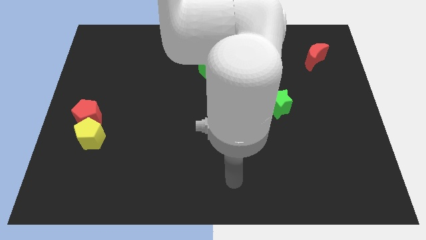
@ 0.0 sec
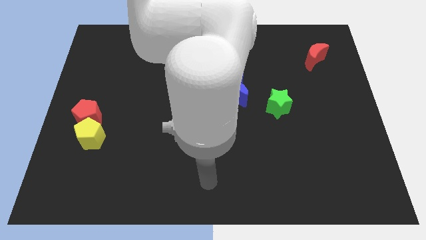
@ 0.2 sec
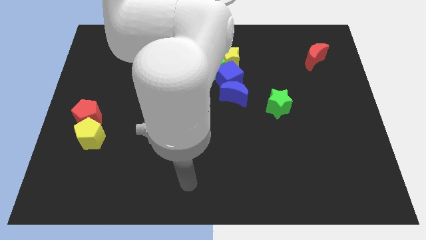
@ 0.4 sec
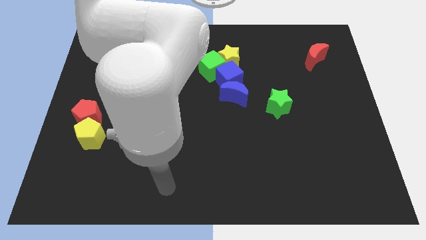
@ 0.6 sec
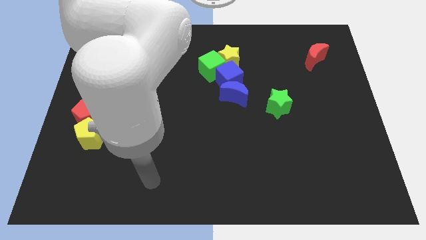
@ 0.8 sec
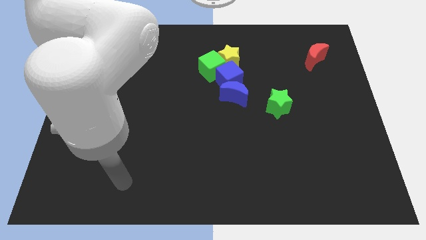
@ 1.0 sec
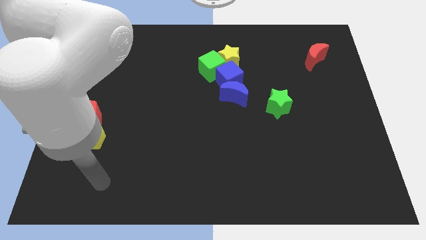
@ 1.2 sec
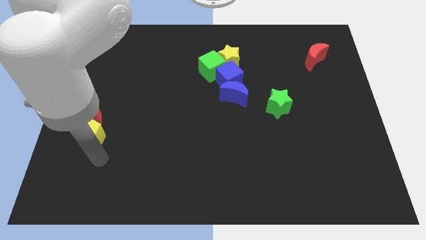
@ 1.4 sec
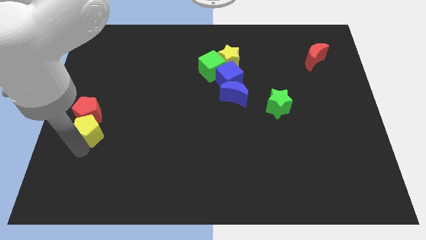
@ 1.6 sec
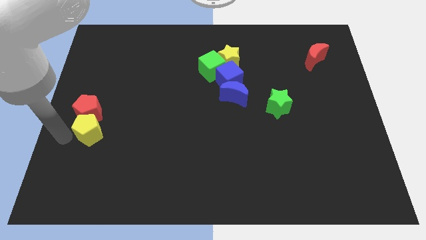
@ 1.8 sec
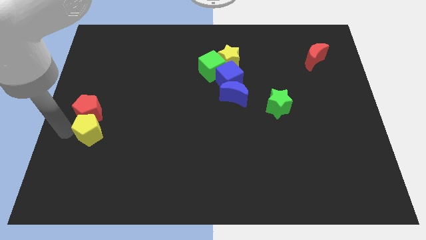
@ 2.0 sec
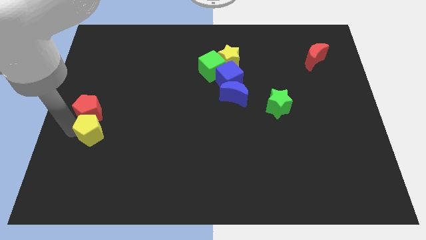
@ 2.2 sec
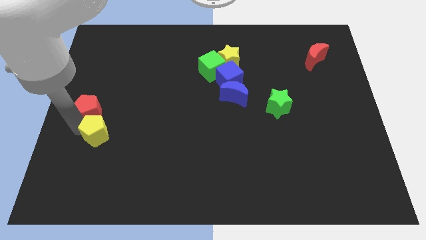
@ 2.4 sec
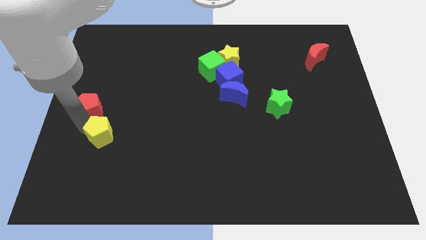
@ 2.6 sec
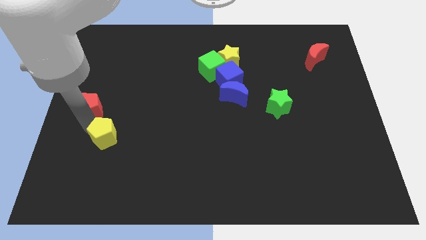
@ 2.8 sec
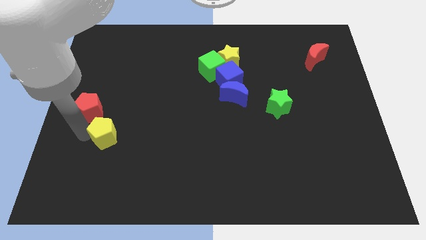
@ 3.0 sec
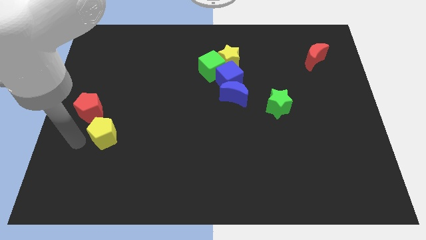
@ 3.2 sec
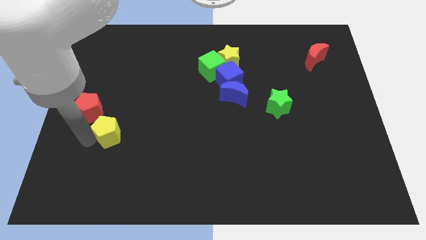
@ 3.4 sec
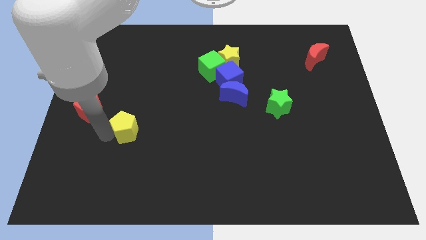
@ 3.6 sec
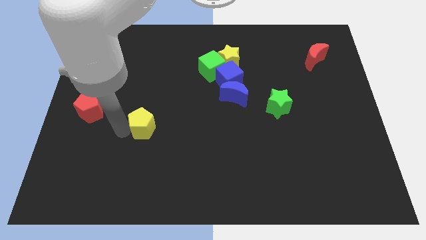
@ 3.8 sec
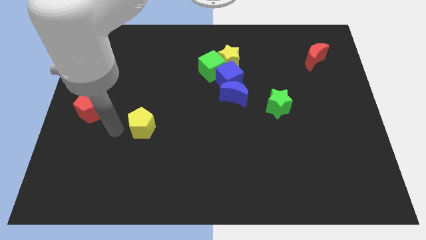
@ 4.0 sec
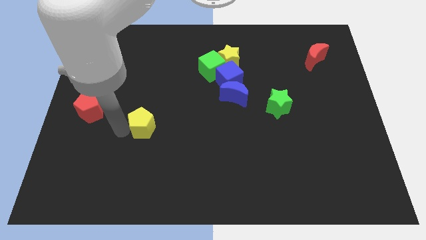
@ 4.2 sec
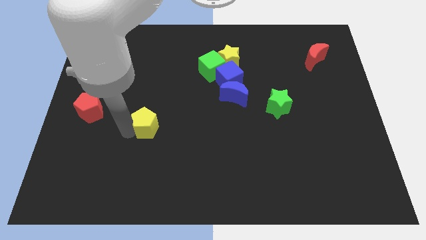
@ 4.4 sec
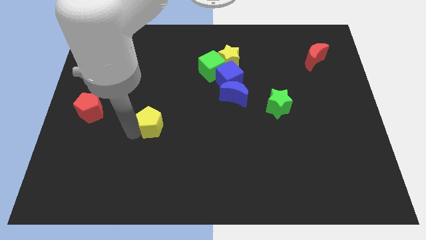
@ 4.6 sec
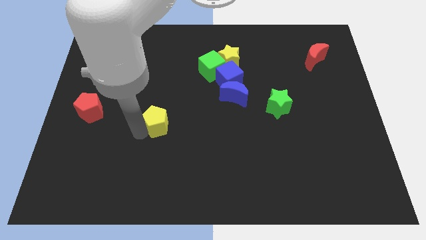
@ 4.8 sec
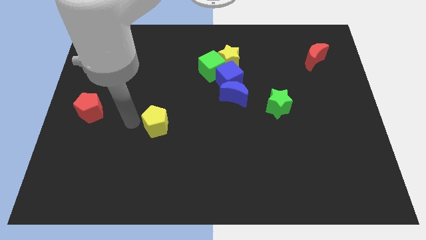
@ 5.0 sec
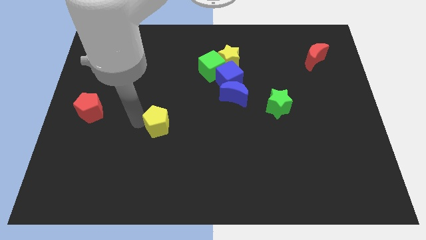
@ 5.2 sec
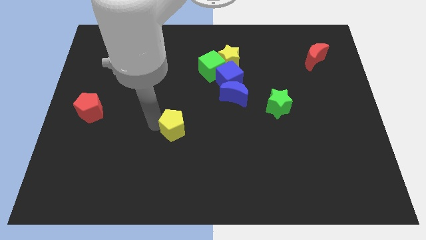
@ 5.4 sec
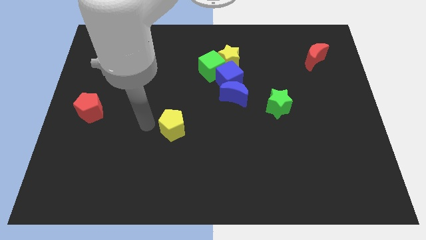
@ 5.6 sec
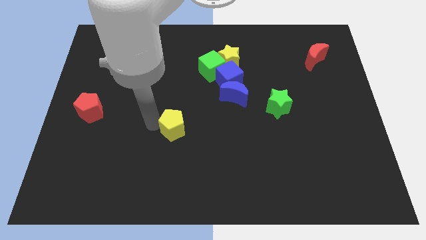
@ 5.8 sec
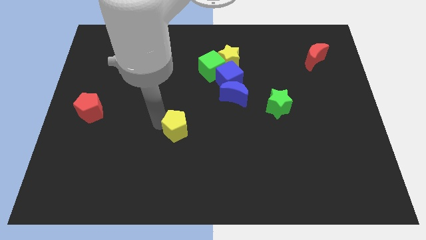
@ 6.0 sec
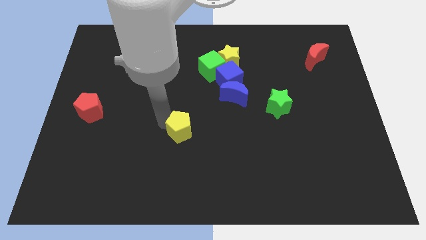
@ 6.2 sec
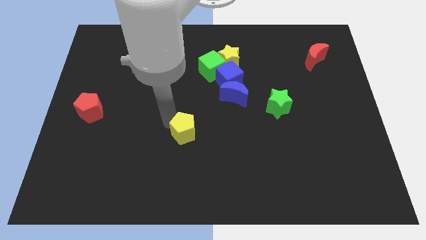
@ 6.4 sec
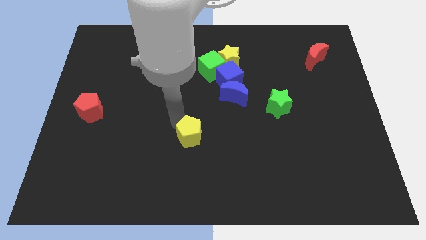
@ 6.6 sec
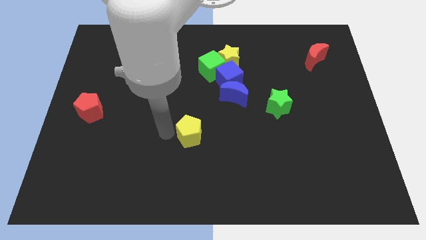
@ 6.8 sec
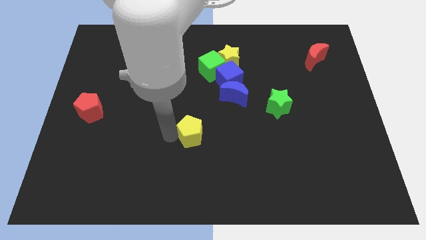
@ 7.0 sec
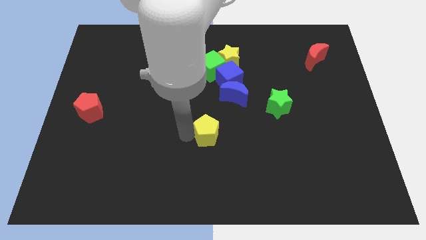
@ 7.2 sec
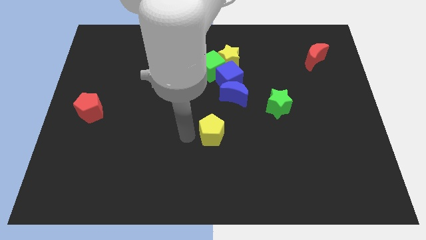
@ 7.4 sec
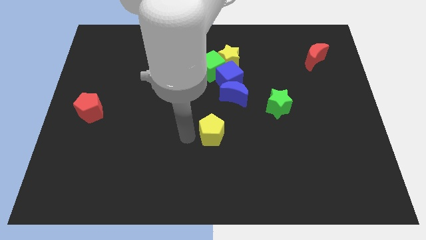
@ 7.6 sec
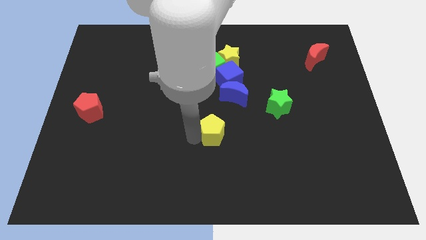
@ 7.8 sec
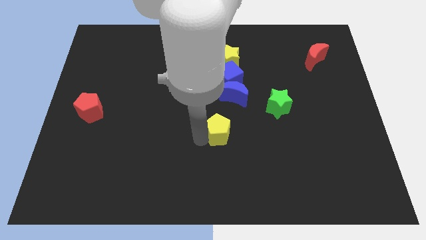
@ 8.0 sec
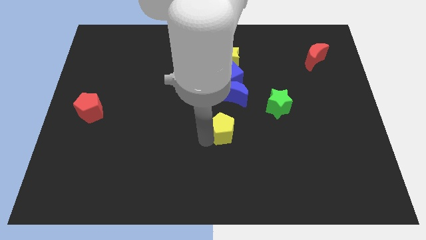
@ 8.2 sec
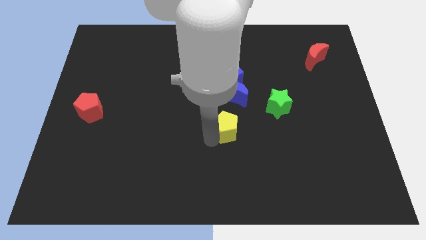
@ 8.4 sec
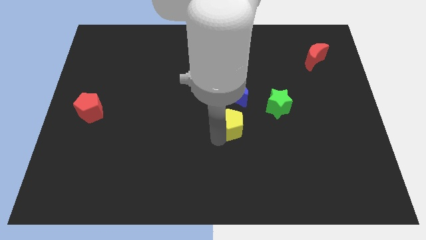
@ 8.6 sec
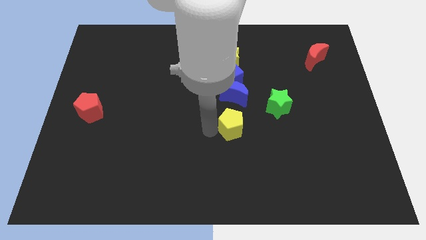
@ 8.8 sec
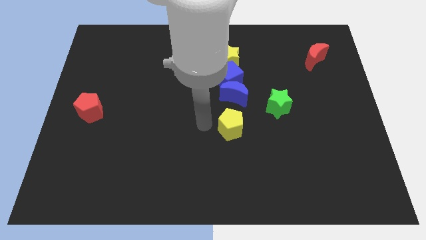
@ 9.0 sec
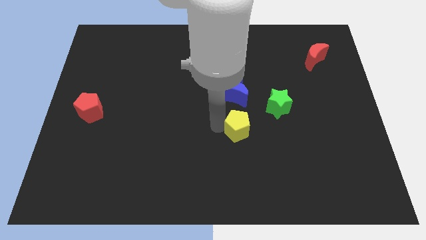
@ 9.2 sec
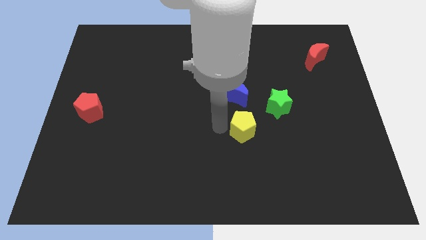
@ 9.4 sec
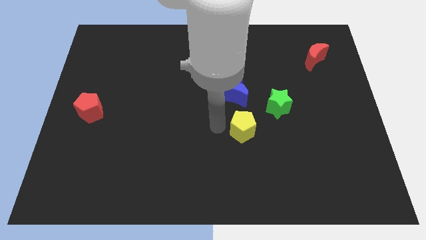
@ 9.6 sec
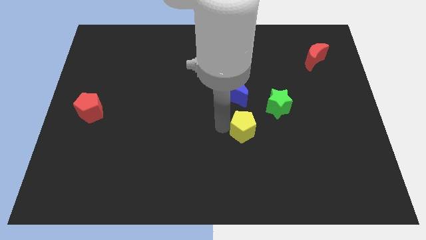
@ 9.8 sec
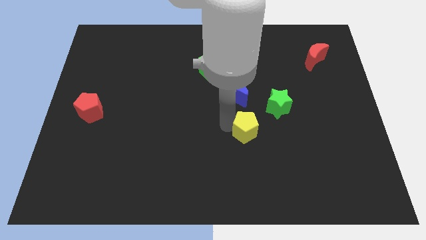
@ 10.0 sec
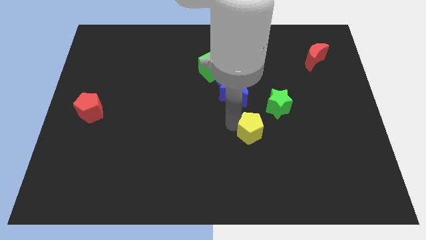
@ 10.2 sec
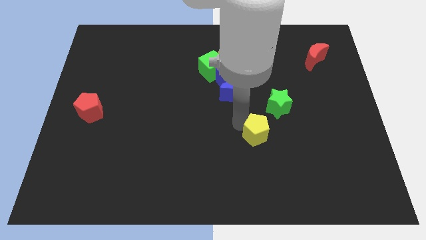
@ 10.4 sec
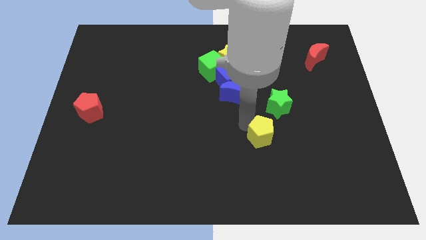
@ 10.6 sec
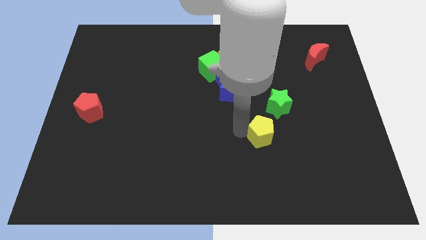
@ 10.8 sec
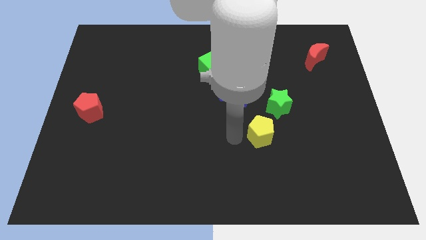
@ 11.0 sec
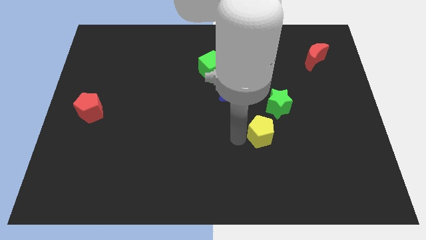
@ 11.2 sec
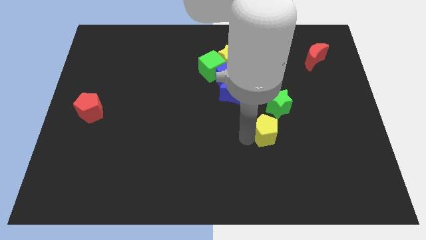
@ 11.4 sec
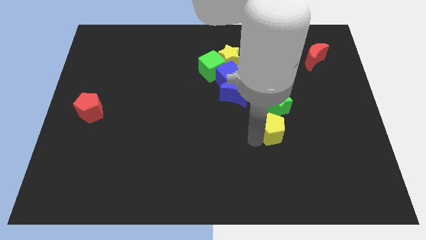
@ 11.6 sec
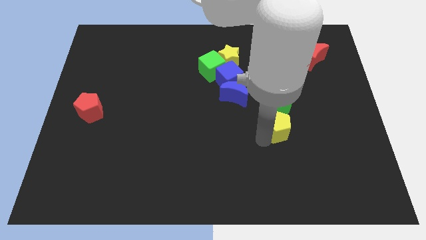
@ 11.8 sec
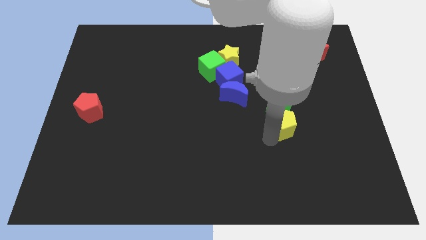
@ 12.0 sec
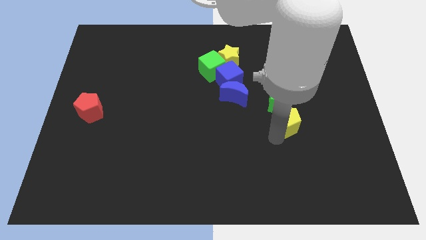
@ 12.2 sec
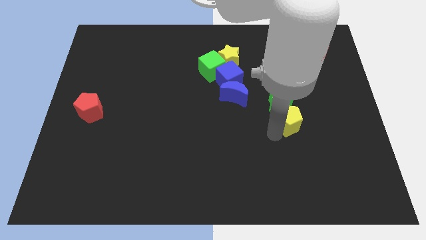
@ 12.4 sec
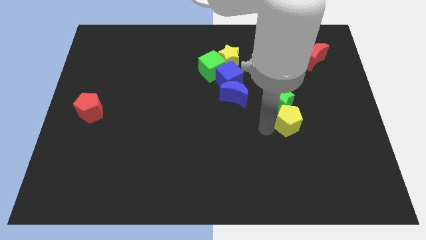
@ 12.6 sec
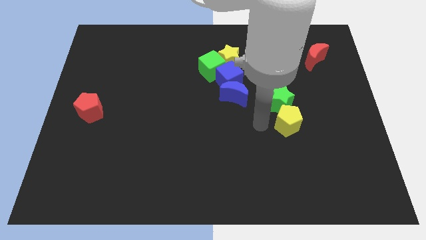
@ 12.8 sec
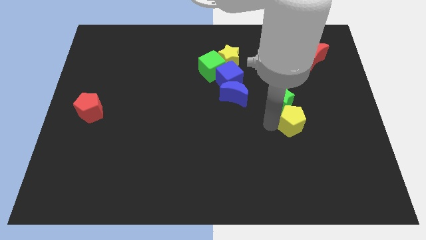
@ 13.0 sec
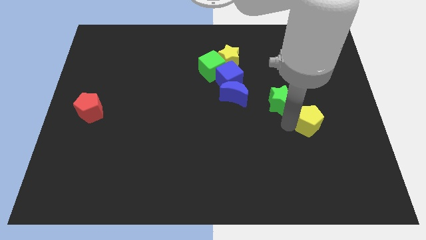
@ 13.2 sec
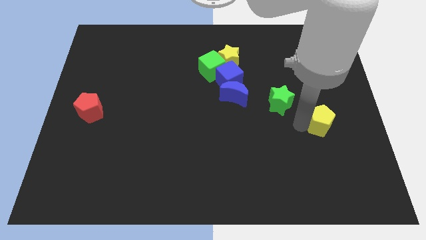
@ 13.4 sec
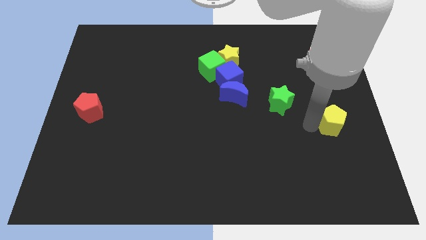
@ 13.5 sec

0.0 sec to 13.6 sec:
put the yellow pentagon to the right side
